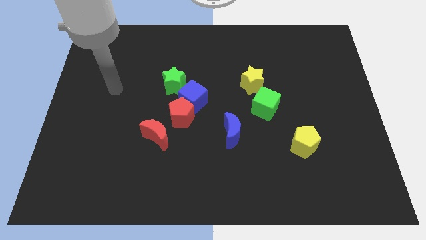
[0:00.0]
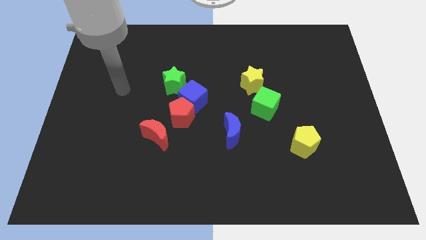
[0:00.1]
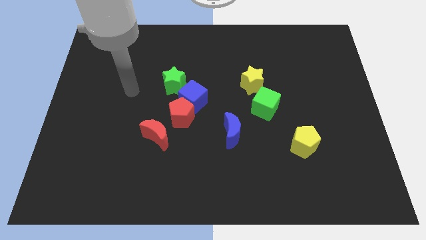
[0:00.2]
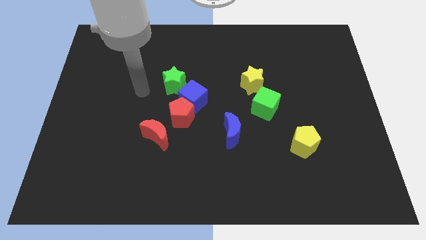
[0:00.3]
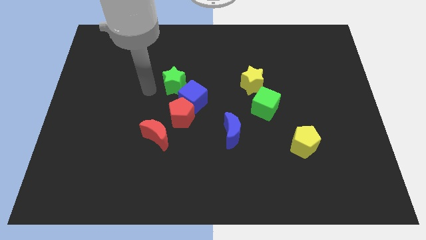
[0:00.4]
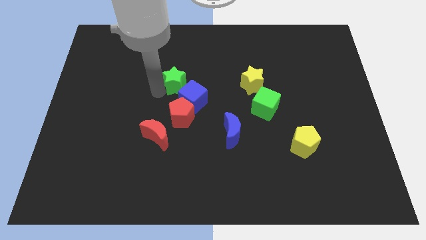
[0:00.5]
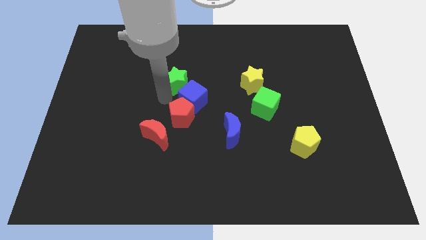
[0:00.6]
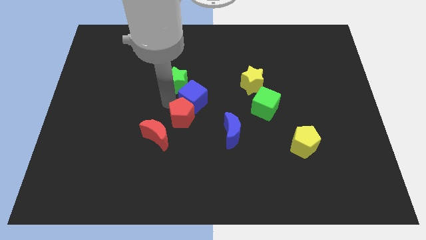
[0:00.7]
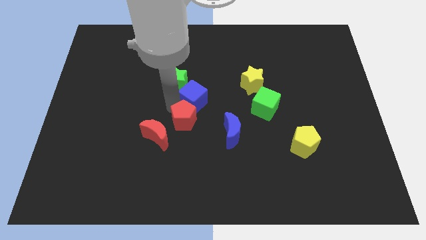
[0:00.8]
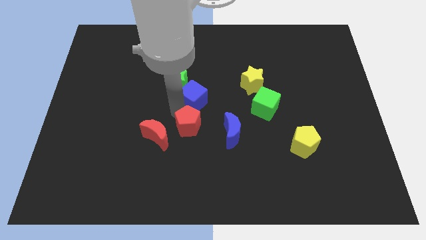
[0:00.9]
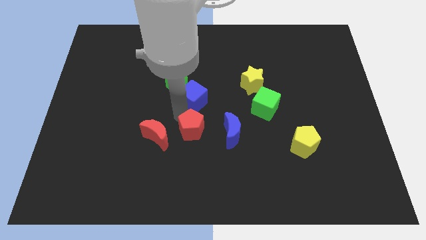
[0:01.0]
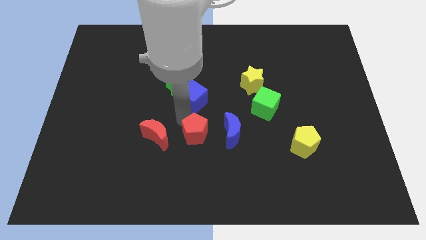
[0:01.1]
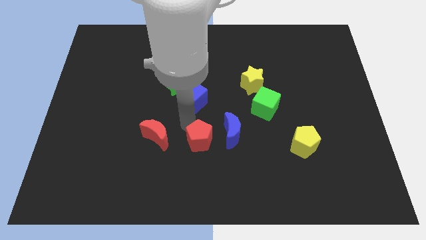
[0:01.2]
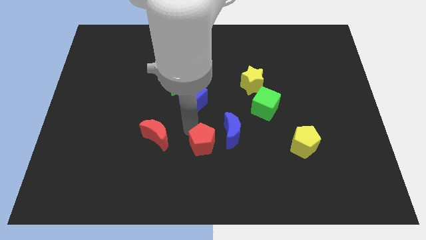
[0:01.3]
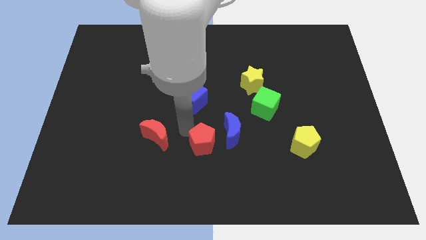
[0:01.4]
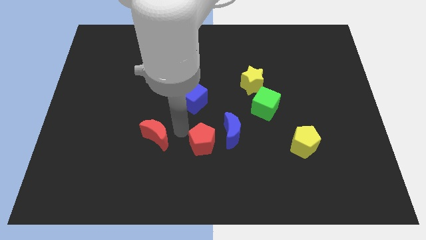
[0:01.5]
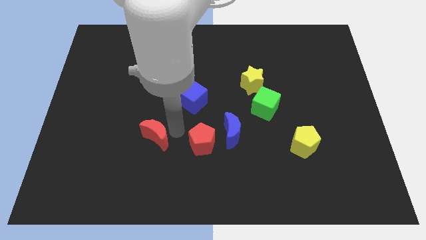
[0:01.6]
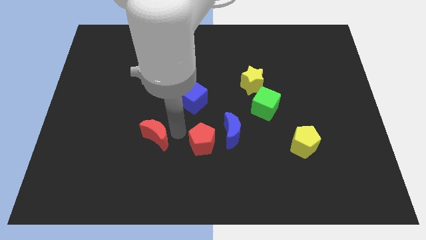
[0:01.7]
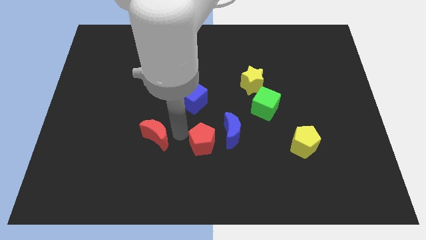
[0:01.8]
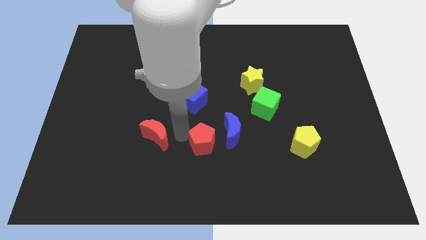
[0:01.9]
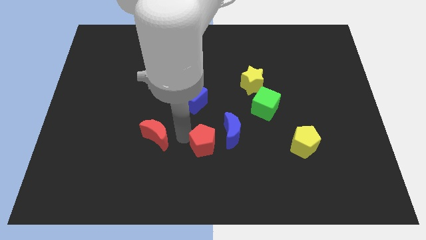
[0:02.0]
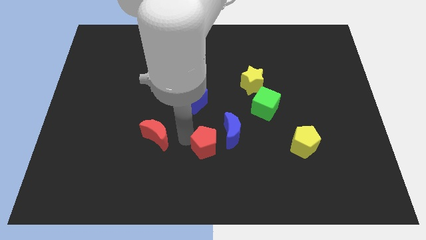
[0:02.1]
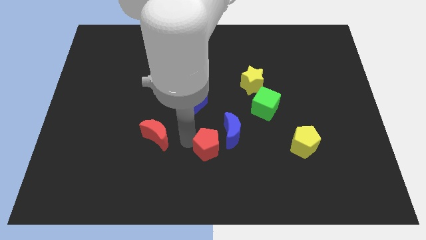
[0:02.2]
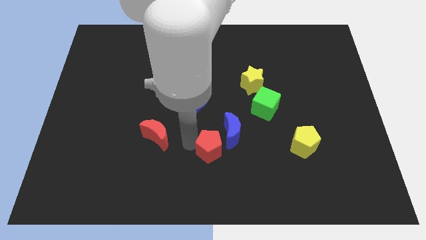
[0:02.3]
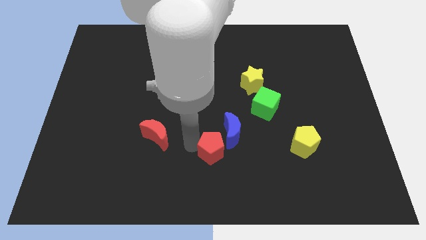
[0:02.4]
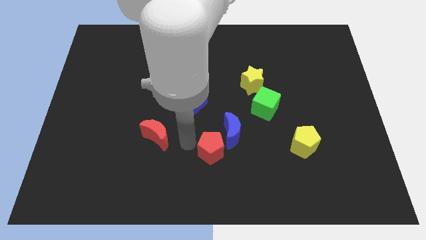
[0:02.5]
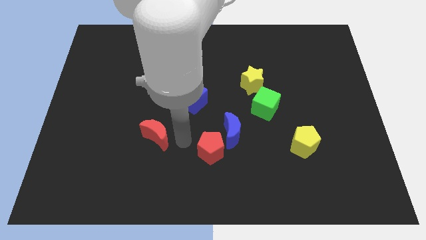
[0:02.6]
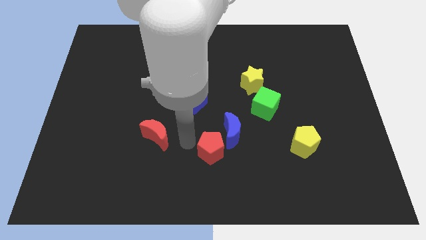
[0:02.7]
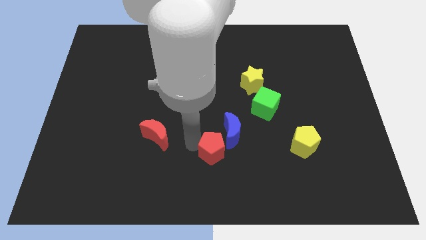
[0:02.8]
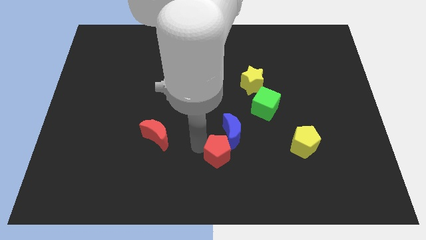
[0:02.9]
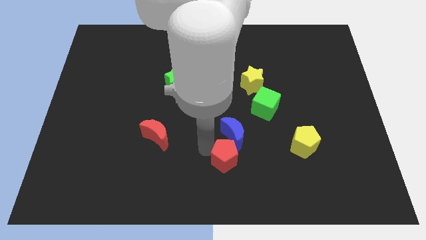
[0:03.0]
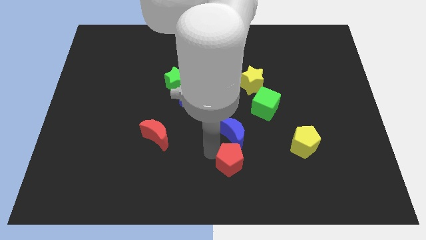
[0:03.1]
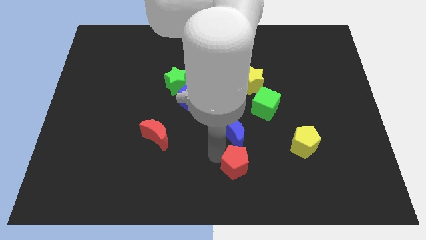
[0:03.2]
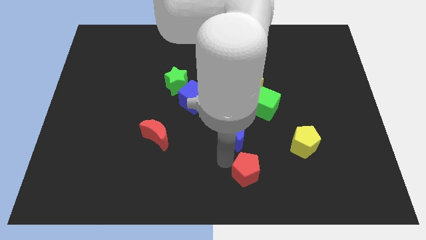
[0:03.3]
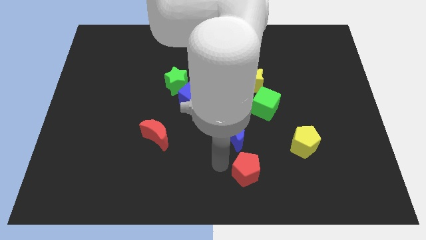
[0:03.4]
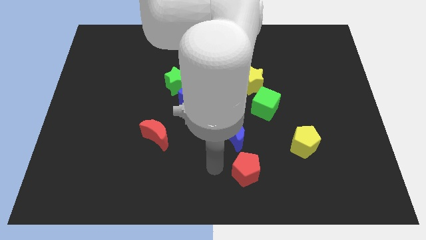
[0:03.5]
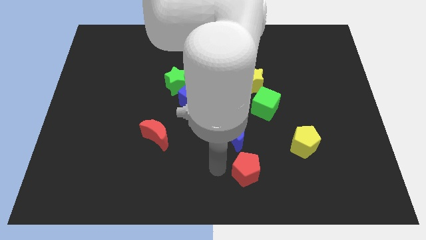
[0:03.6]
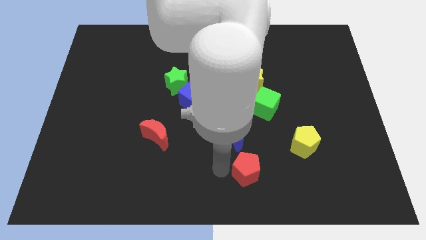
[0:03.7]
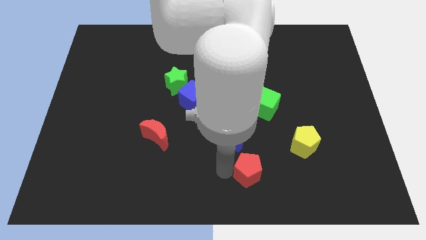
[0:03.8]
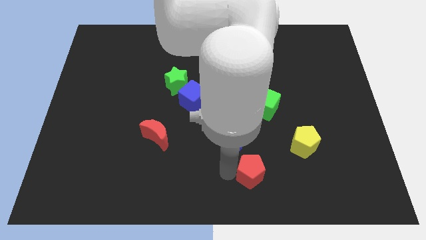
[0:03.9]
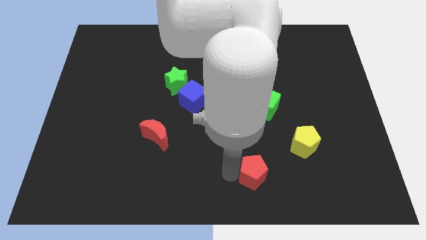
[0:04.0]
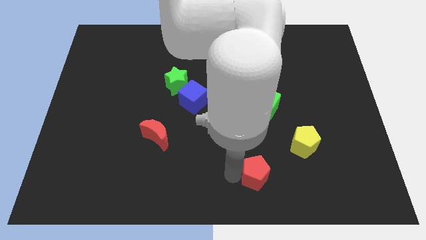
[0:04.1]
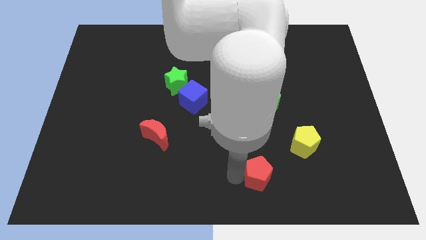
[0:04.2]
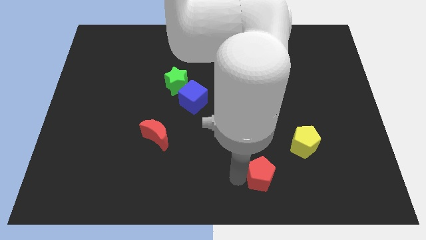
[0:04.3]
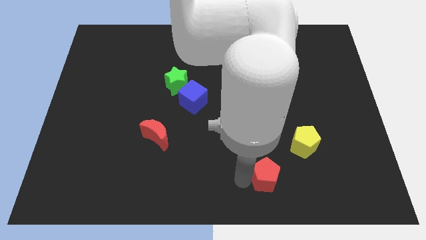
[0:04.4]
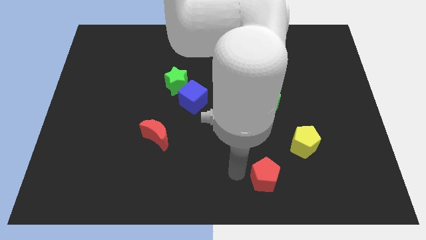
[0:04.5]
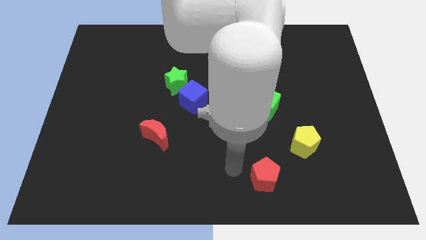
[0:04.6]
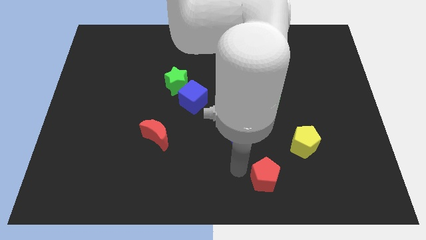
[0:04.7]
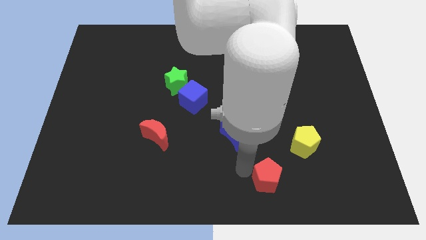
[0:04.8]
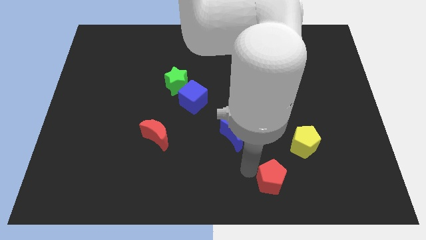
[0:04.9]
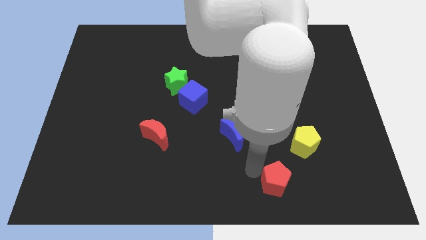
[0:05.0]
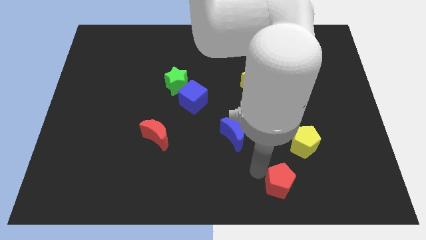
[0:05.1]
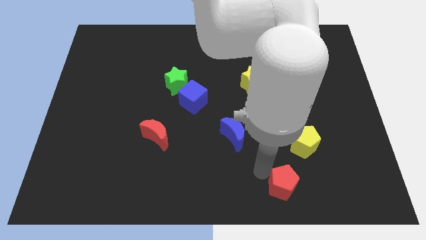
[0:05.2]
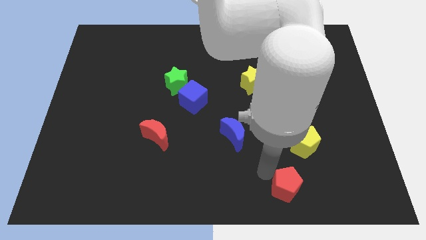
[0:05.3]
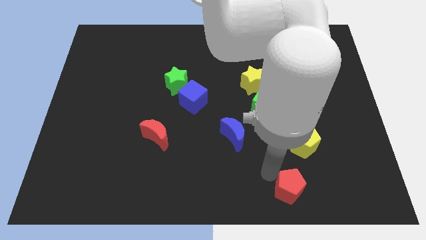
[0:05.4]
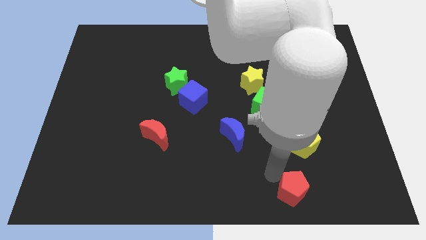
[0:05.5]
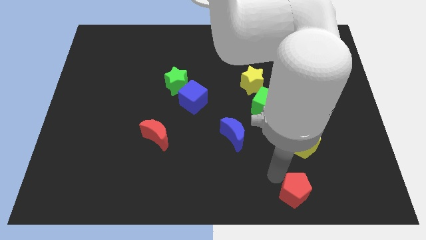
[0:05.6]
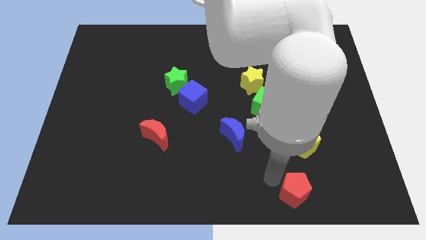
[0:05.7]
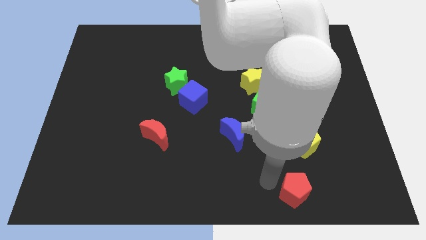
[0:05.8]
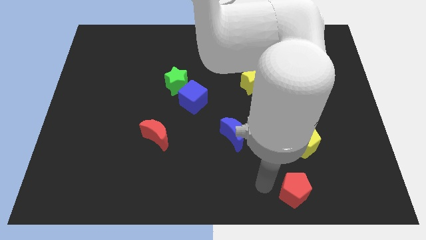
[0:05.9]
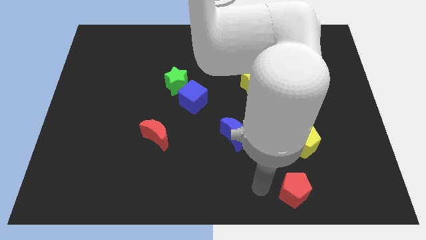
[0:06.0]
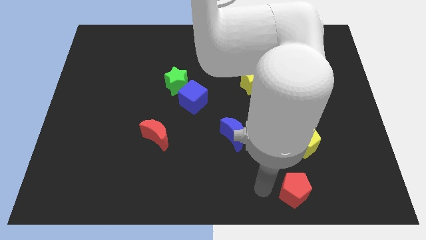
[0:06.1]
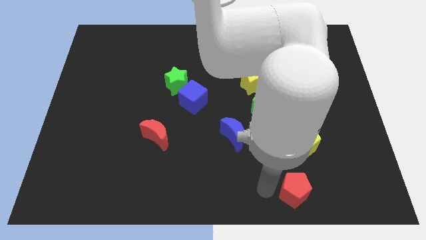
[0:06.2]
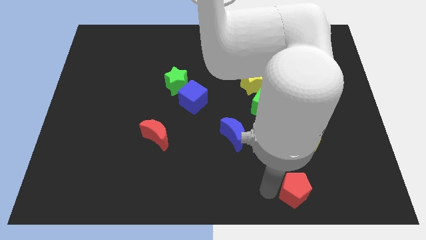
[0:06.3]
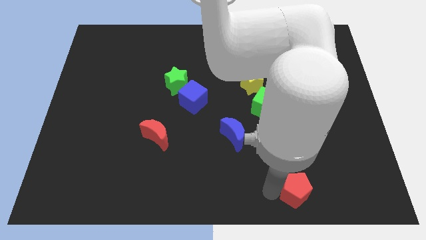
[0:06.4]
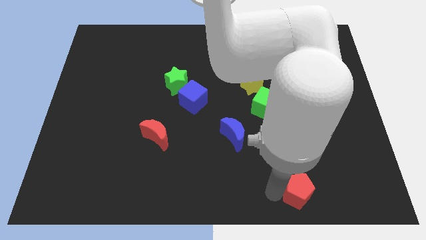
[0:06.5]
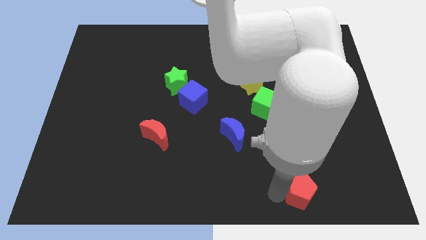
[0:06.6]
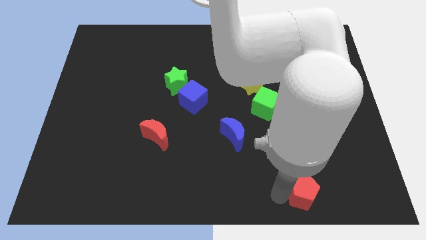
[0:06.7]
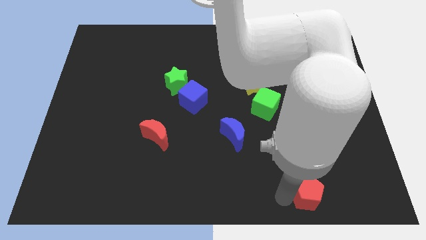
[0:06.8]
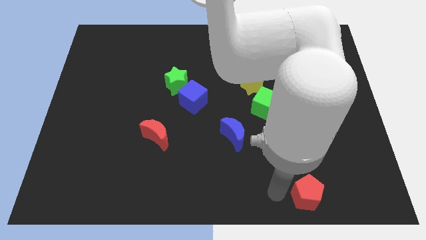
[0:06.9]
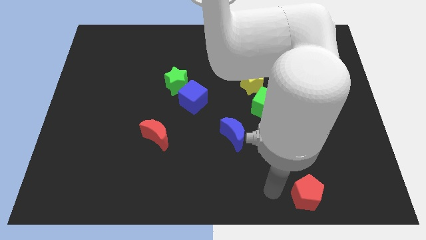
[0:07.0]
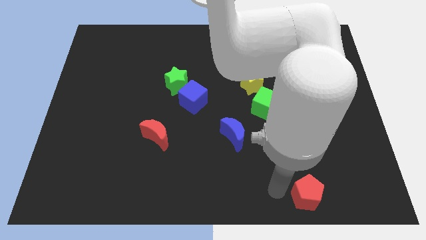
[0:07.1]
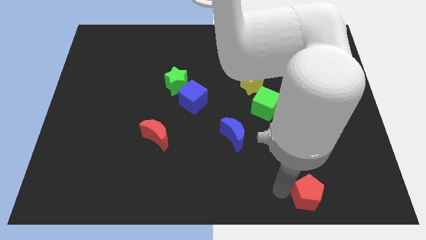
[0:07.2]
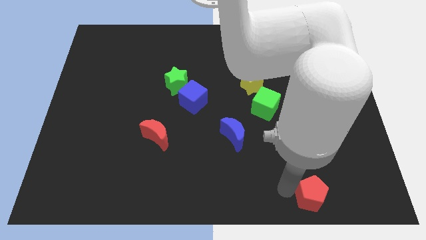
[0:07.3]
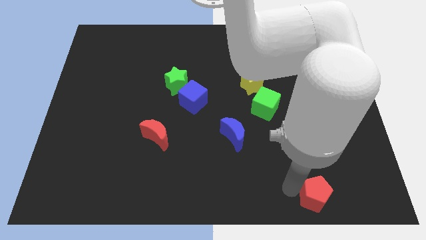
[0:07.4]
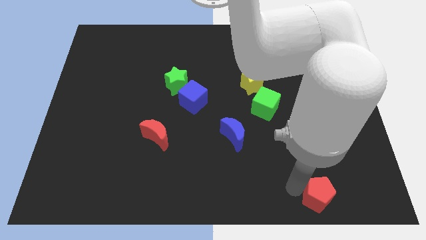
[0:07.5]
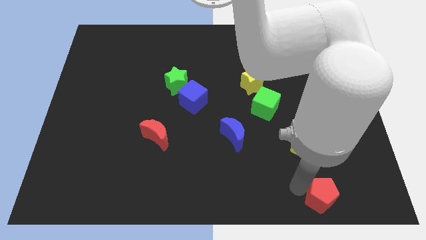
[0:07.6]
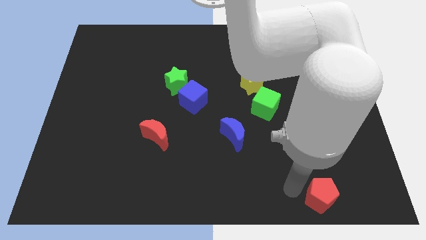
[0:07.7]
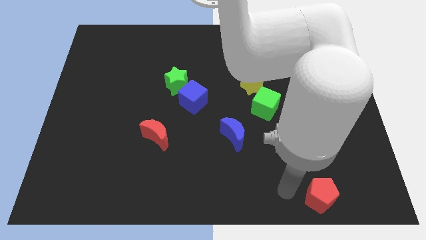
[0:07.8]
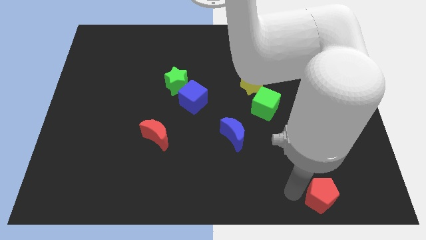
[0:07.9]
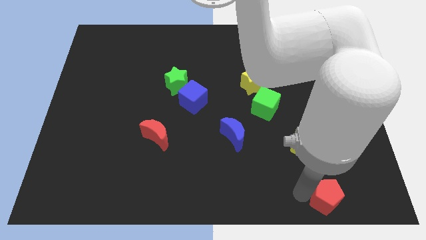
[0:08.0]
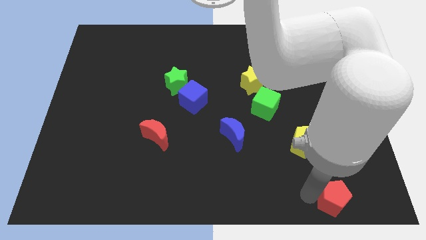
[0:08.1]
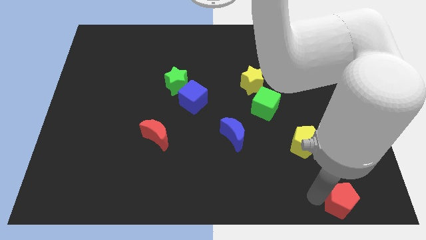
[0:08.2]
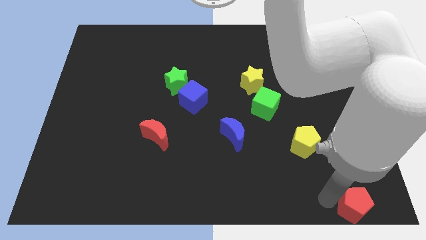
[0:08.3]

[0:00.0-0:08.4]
move the red pentagon to the bottom right
